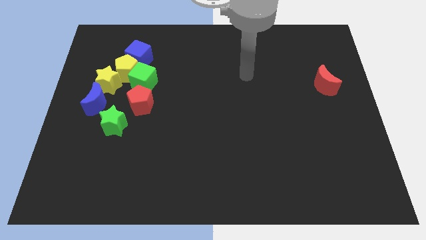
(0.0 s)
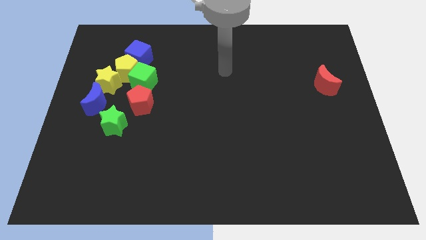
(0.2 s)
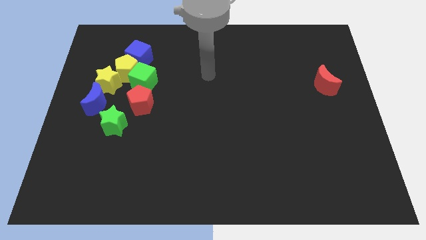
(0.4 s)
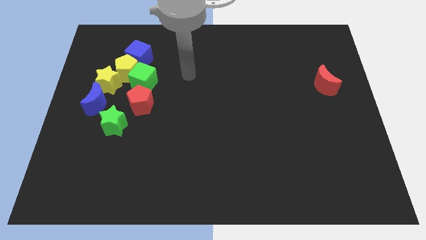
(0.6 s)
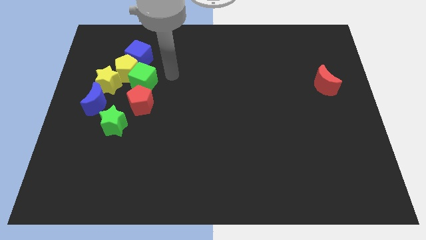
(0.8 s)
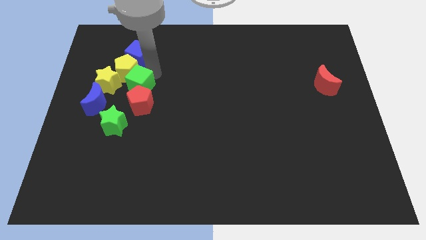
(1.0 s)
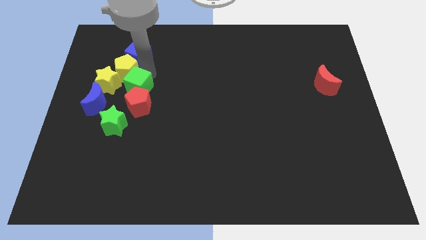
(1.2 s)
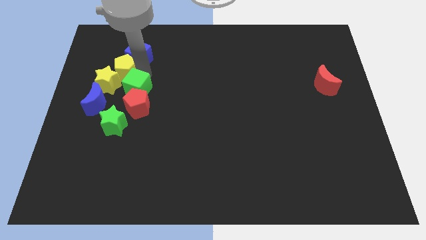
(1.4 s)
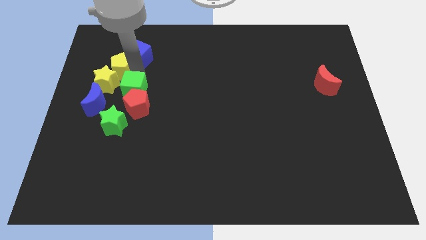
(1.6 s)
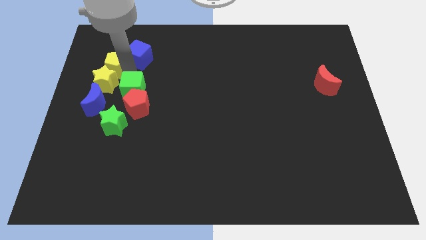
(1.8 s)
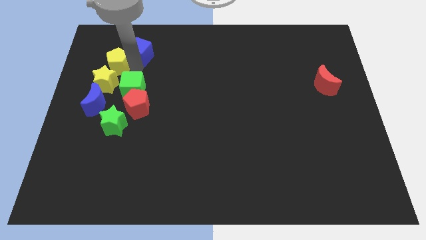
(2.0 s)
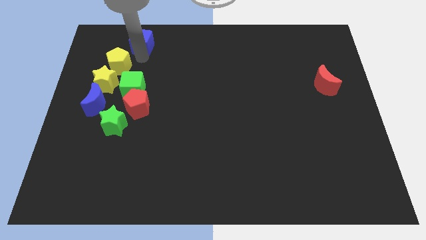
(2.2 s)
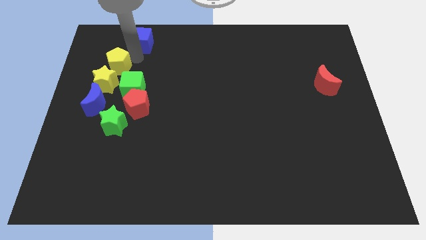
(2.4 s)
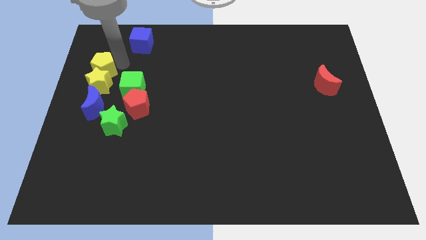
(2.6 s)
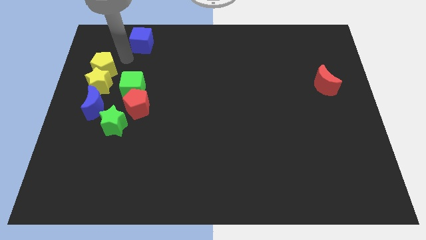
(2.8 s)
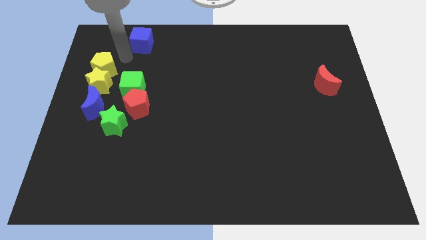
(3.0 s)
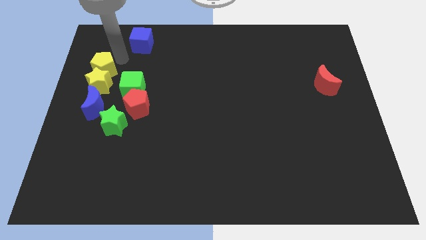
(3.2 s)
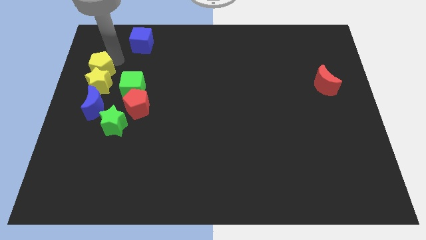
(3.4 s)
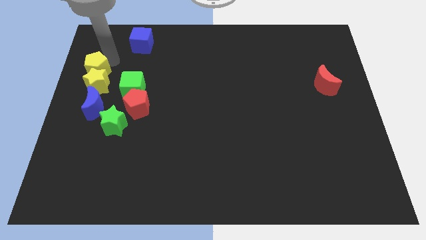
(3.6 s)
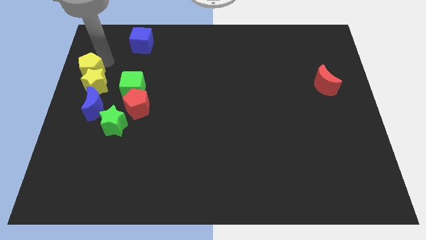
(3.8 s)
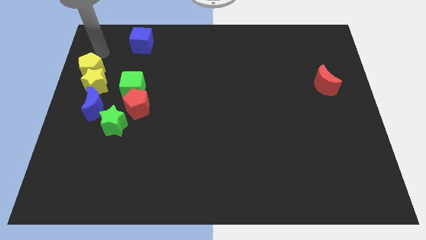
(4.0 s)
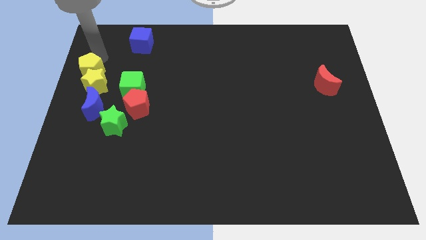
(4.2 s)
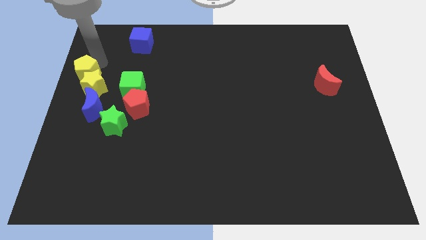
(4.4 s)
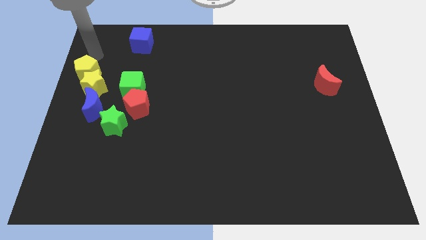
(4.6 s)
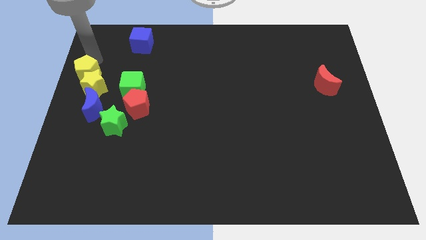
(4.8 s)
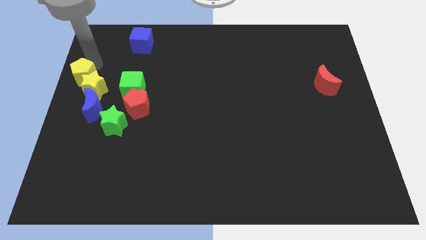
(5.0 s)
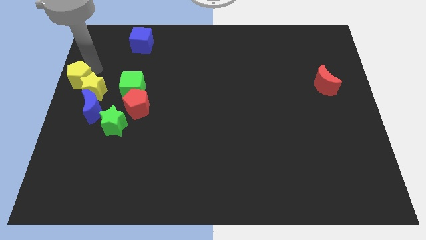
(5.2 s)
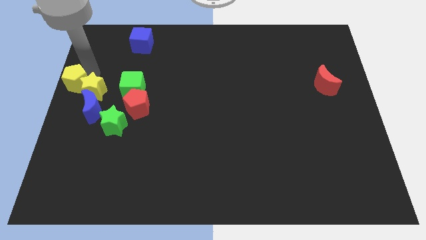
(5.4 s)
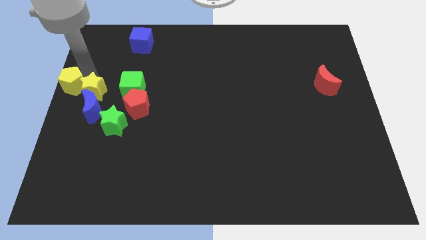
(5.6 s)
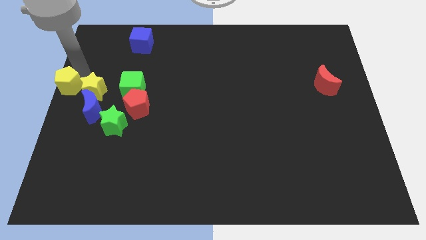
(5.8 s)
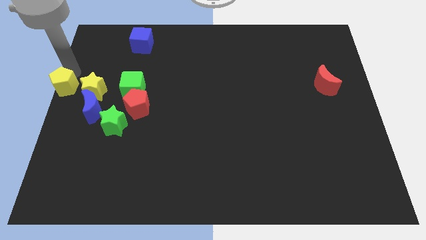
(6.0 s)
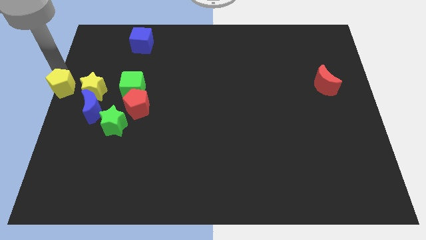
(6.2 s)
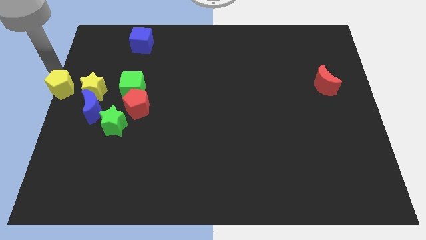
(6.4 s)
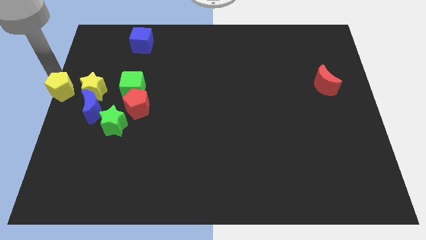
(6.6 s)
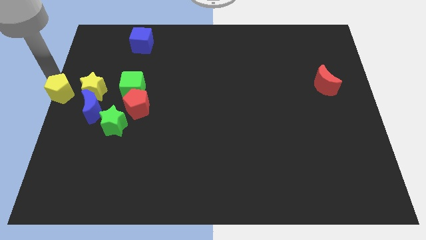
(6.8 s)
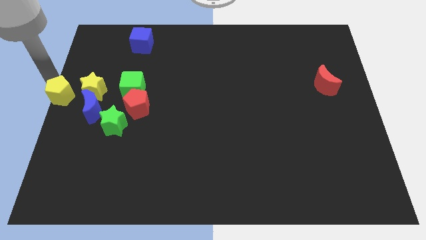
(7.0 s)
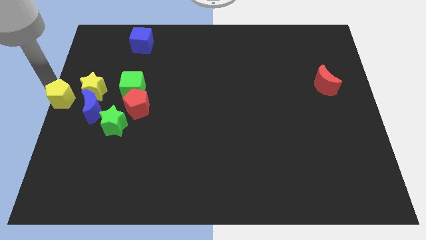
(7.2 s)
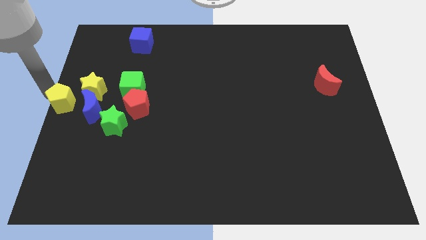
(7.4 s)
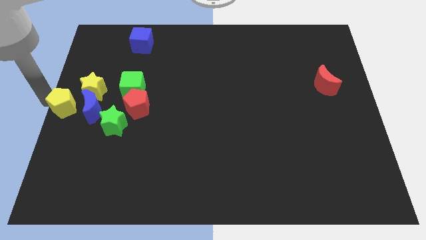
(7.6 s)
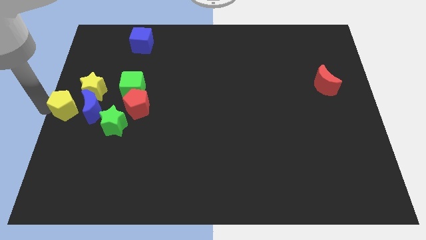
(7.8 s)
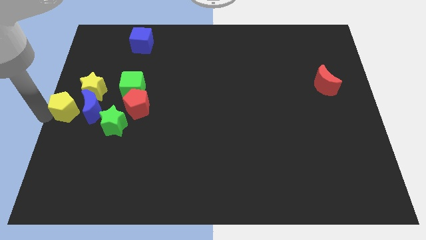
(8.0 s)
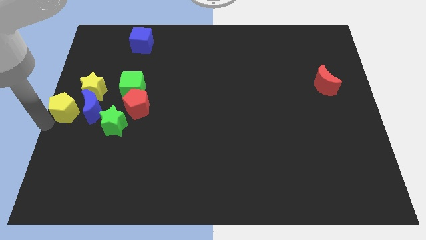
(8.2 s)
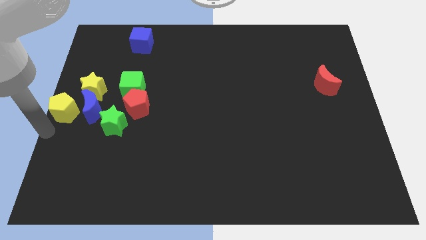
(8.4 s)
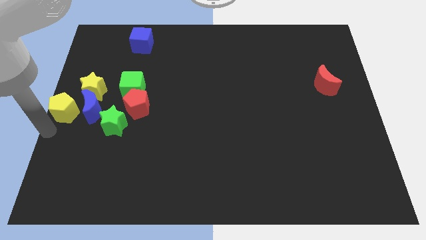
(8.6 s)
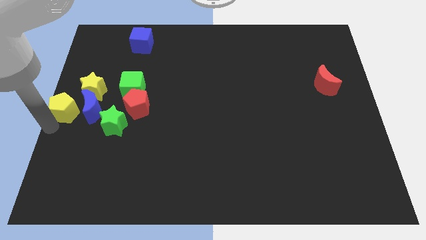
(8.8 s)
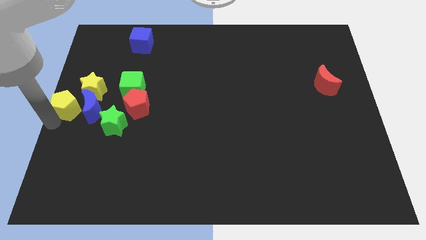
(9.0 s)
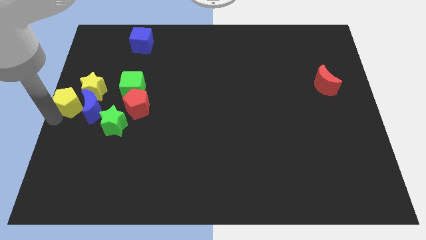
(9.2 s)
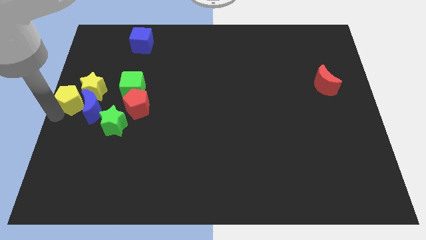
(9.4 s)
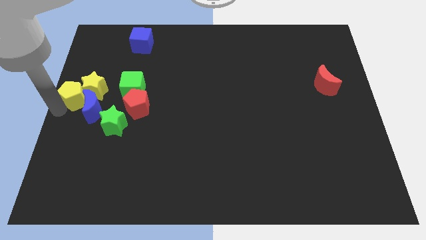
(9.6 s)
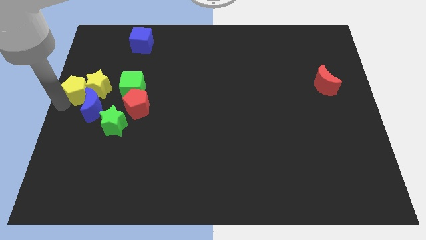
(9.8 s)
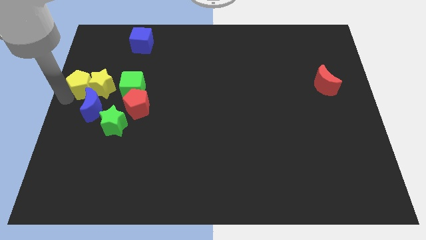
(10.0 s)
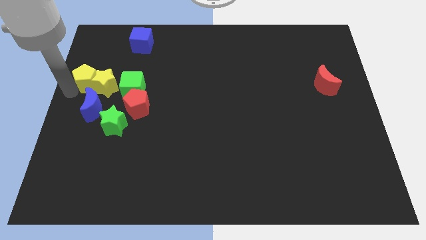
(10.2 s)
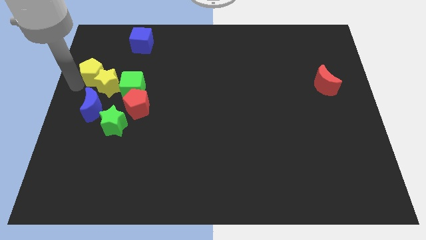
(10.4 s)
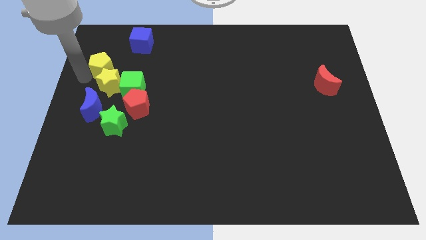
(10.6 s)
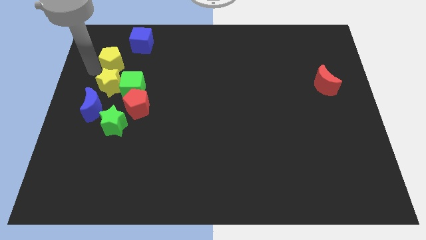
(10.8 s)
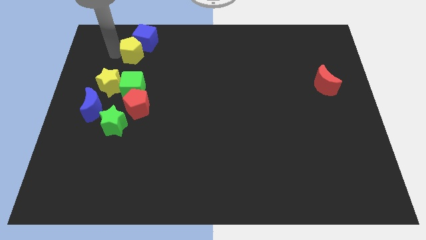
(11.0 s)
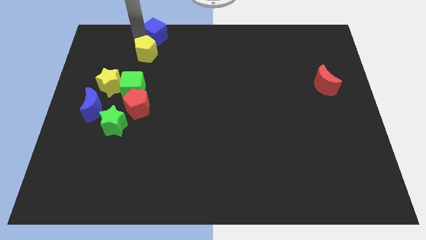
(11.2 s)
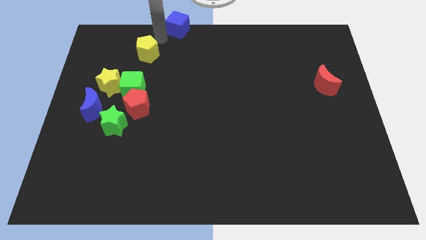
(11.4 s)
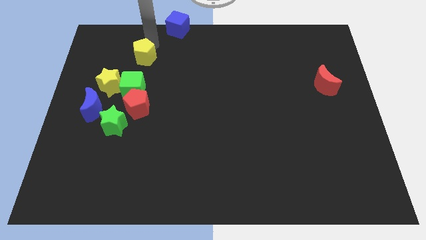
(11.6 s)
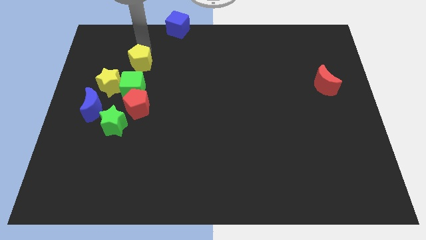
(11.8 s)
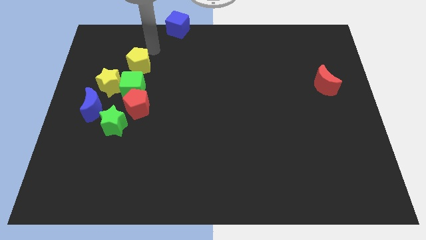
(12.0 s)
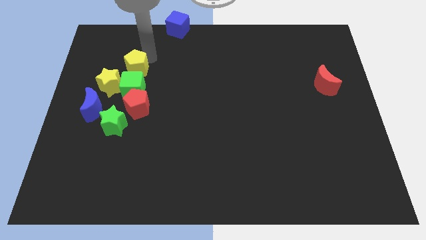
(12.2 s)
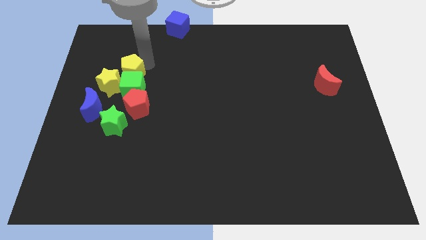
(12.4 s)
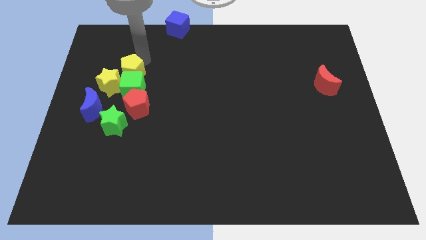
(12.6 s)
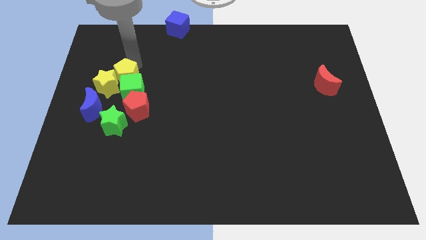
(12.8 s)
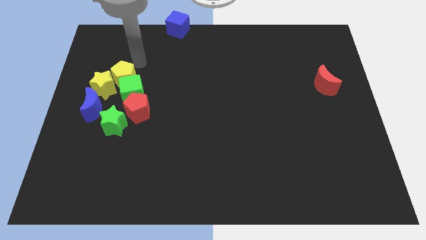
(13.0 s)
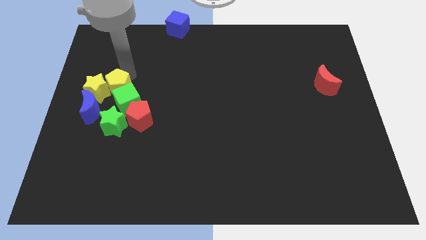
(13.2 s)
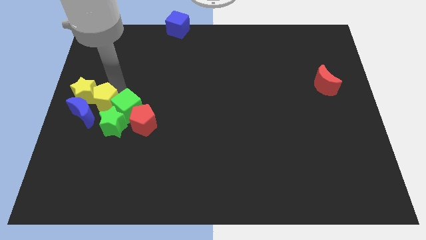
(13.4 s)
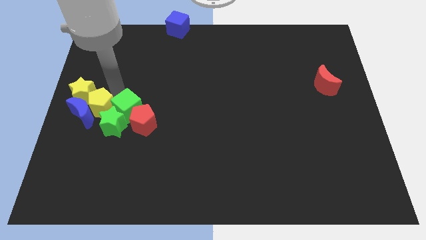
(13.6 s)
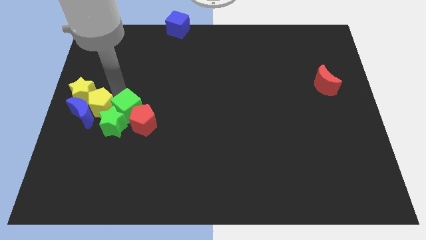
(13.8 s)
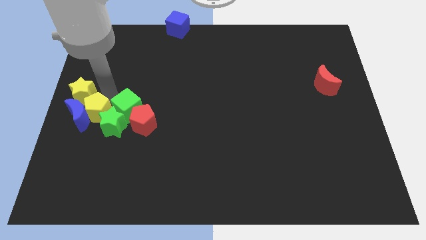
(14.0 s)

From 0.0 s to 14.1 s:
push the yellow pentagon next to the green star
